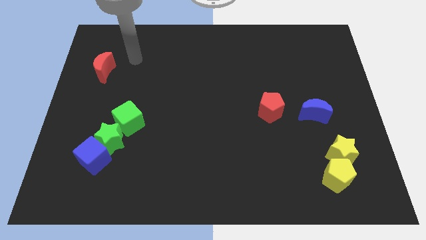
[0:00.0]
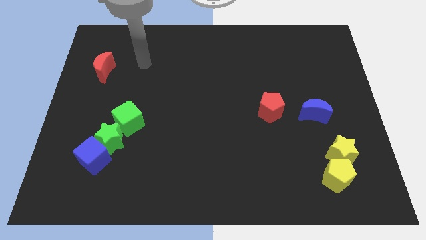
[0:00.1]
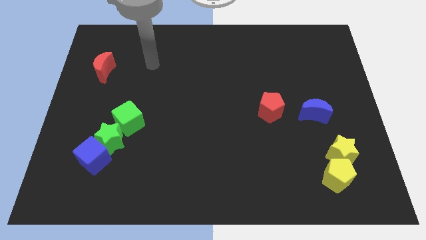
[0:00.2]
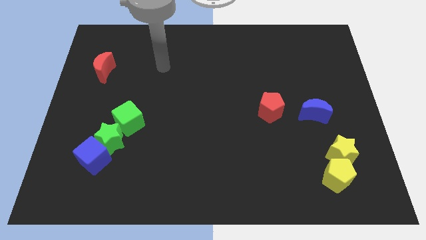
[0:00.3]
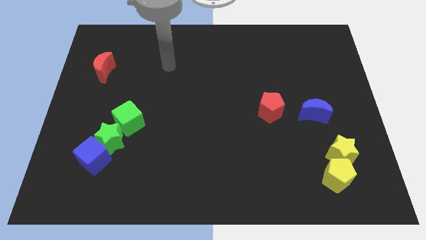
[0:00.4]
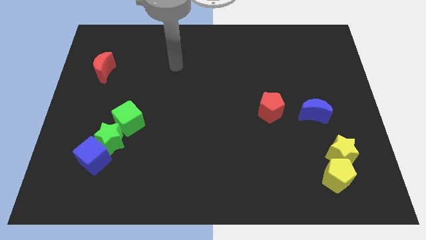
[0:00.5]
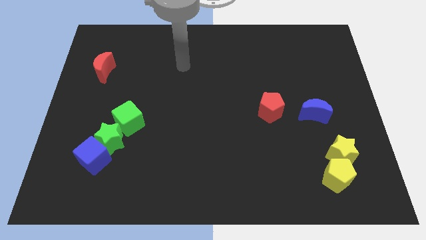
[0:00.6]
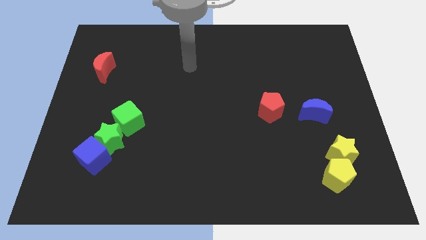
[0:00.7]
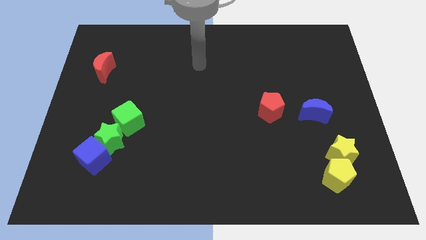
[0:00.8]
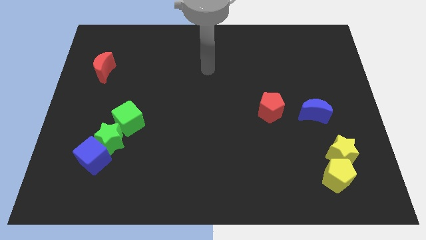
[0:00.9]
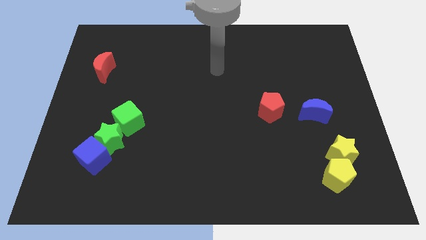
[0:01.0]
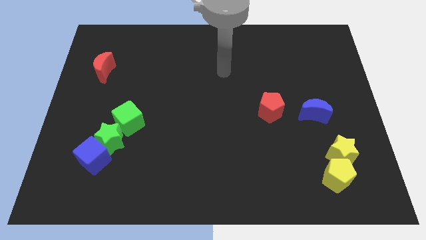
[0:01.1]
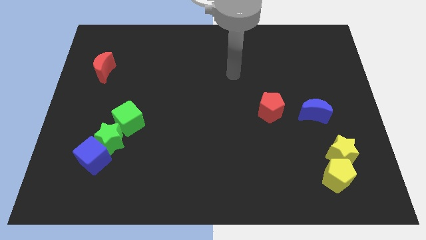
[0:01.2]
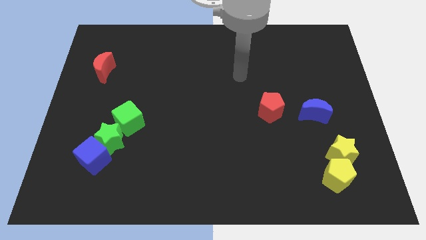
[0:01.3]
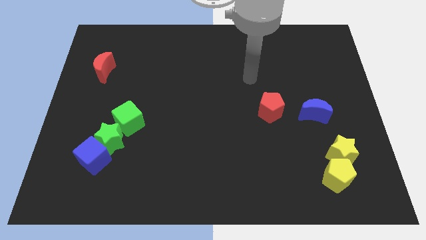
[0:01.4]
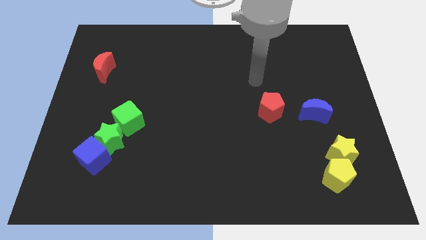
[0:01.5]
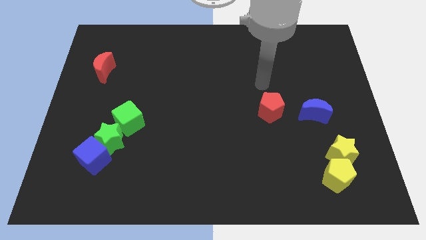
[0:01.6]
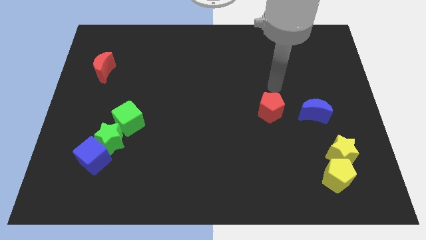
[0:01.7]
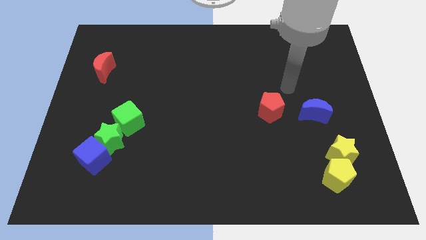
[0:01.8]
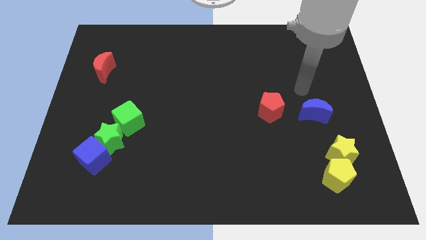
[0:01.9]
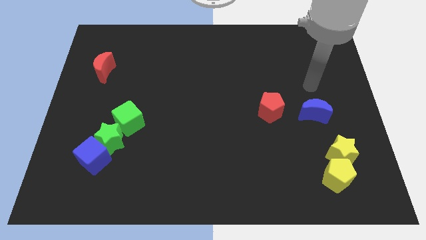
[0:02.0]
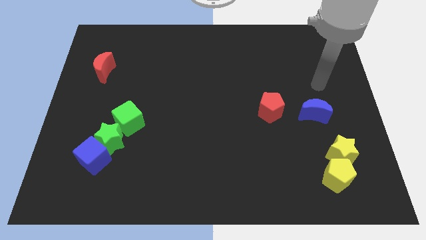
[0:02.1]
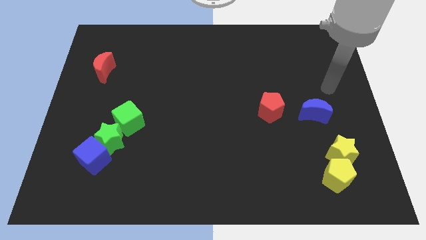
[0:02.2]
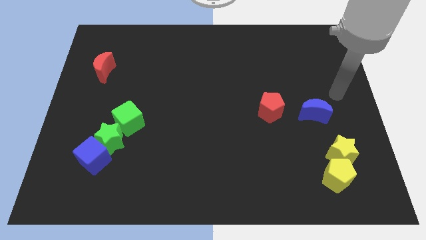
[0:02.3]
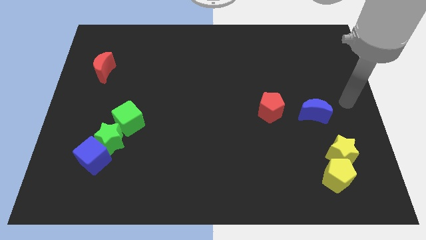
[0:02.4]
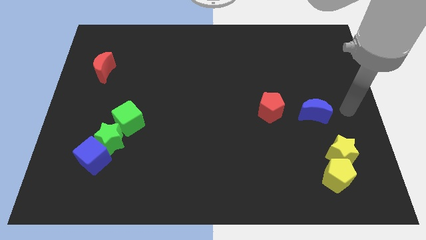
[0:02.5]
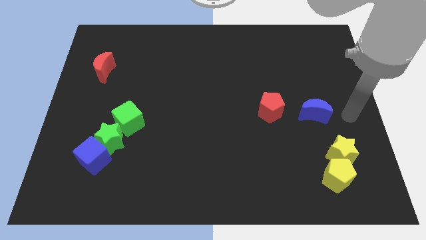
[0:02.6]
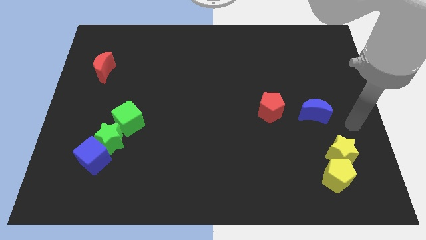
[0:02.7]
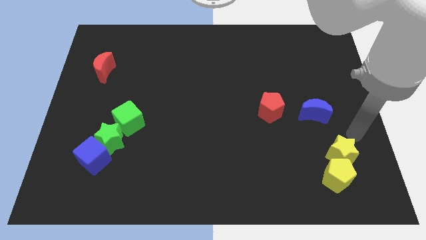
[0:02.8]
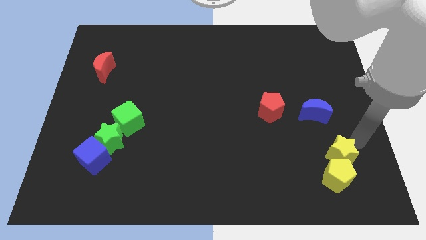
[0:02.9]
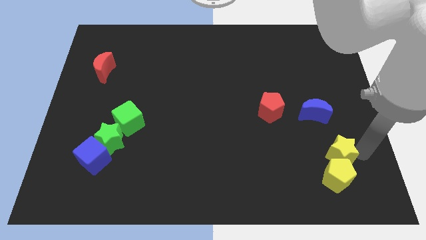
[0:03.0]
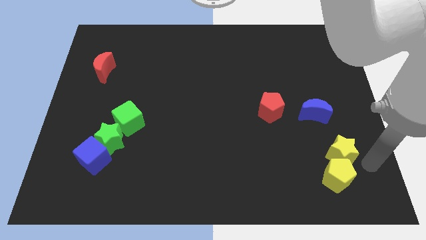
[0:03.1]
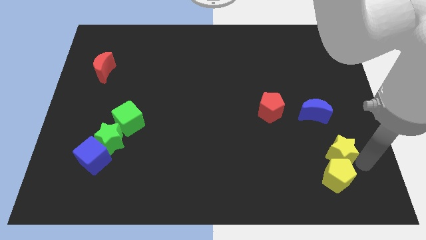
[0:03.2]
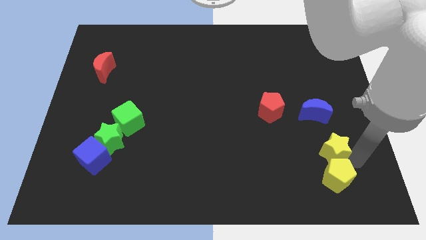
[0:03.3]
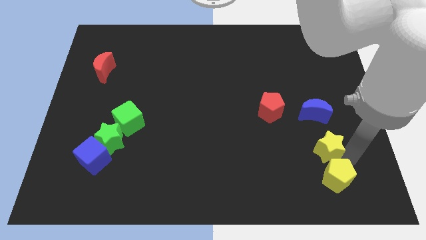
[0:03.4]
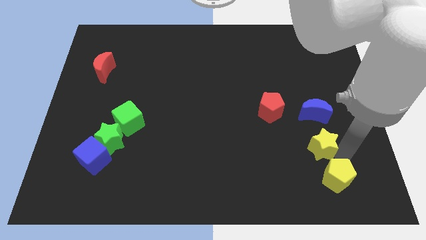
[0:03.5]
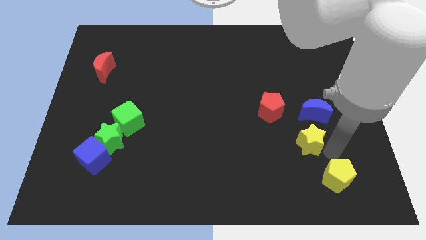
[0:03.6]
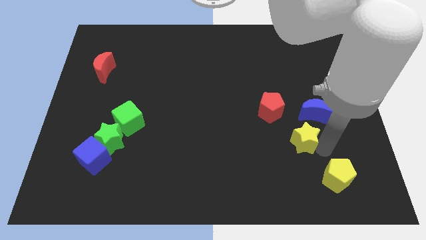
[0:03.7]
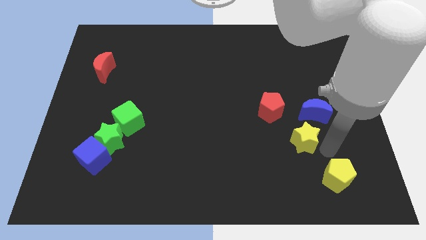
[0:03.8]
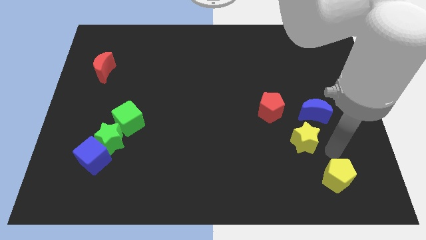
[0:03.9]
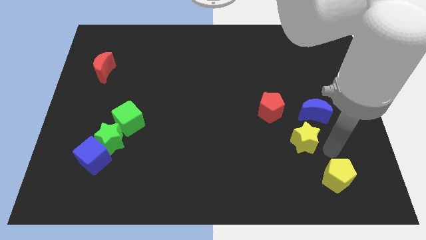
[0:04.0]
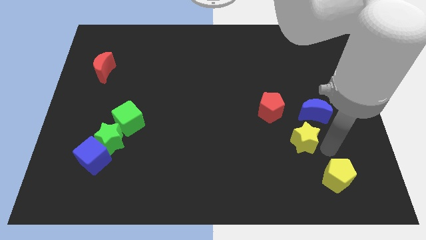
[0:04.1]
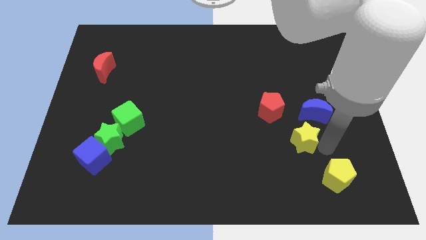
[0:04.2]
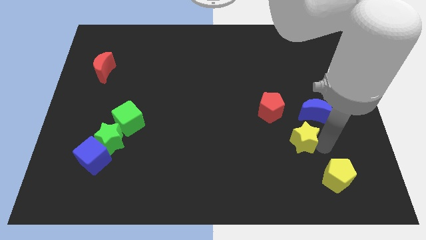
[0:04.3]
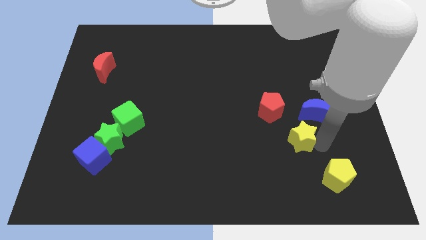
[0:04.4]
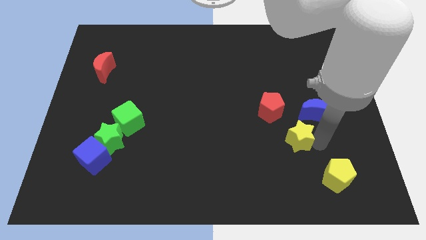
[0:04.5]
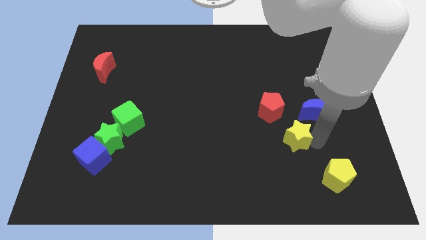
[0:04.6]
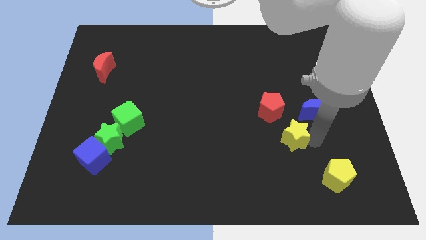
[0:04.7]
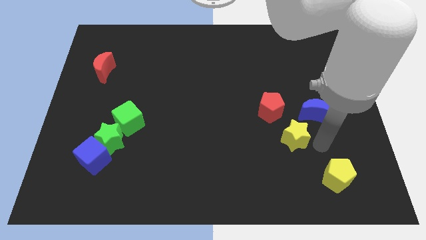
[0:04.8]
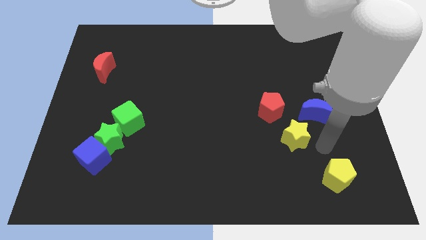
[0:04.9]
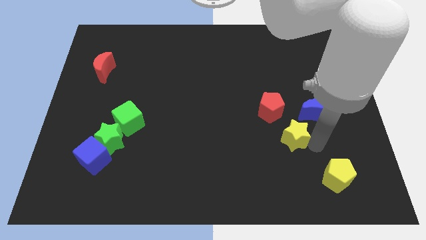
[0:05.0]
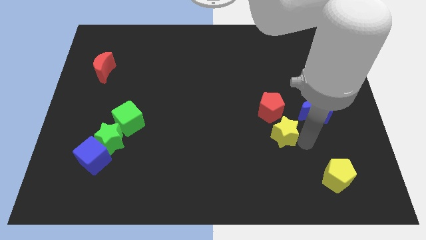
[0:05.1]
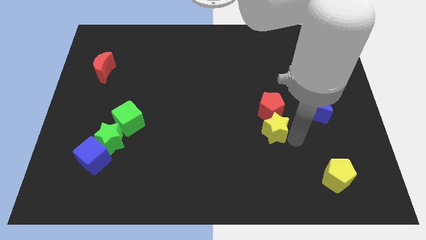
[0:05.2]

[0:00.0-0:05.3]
push the yellow star to the bottom left side of the red pentagon

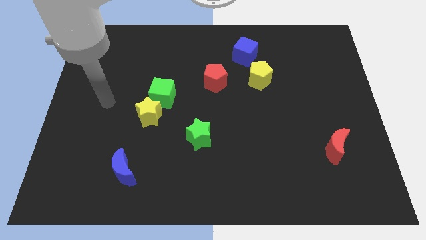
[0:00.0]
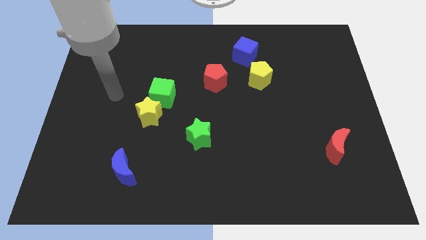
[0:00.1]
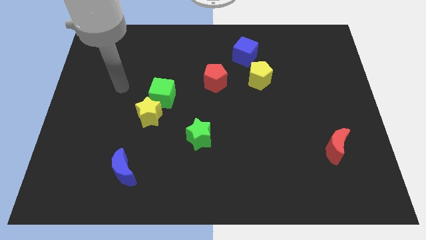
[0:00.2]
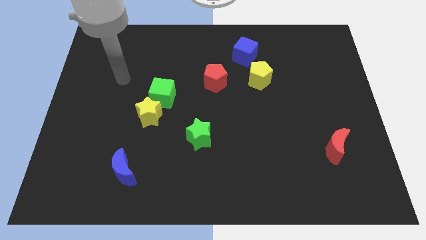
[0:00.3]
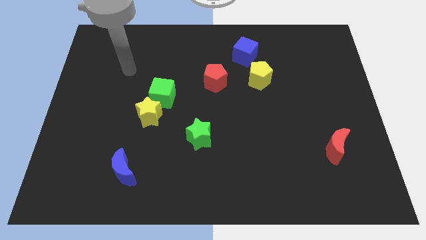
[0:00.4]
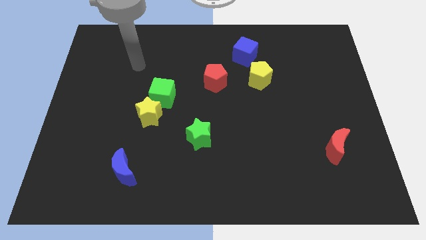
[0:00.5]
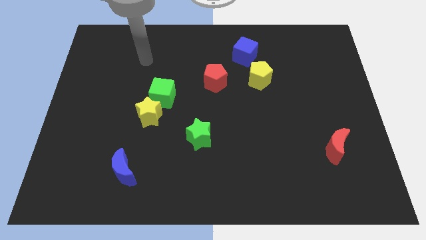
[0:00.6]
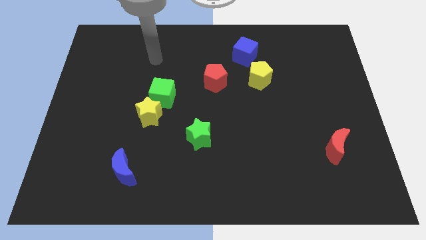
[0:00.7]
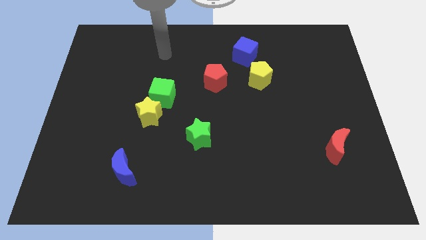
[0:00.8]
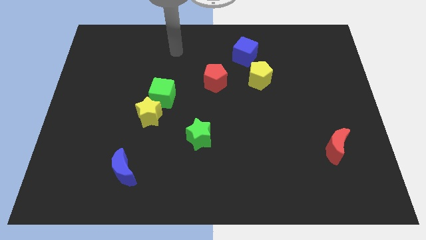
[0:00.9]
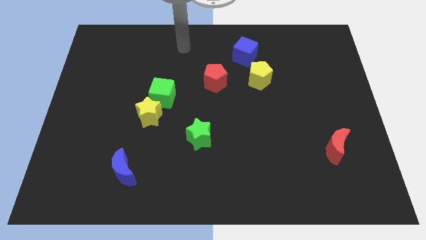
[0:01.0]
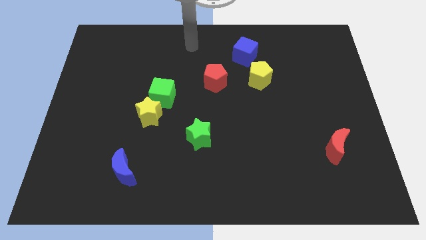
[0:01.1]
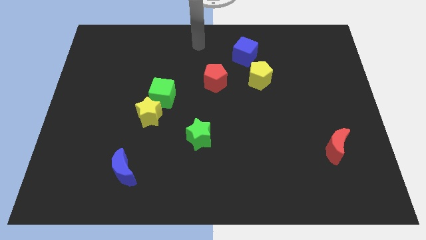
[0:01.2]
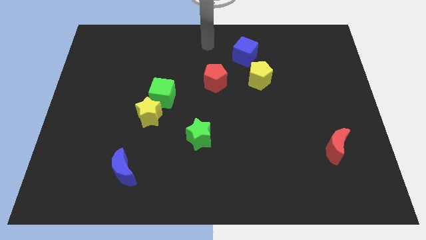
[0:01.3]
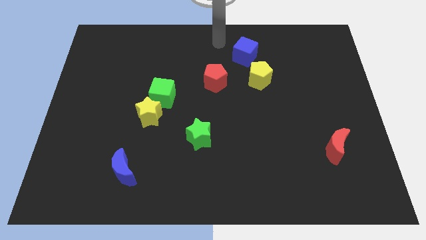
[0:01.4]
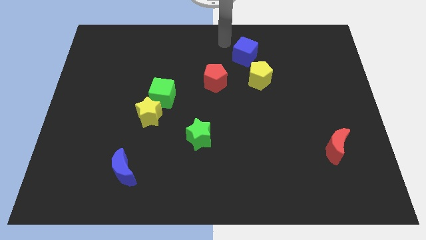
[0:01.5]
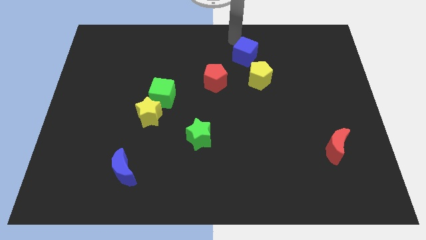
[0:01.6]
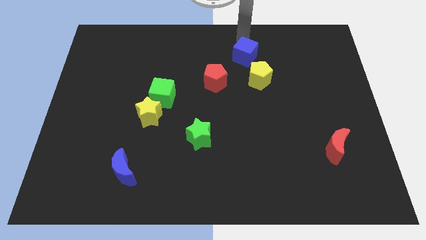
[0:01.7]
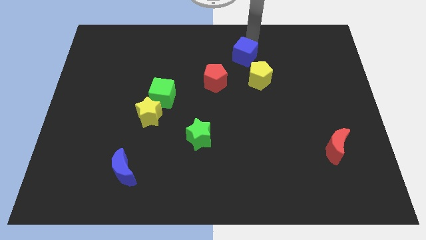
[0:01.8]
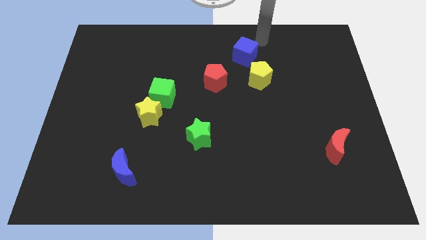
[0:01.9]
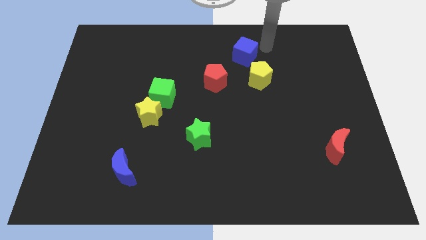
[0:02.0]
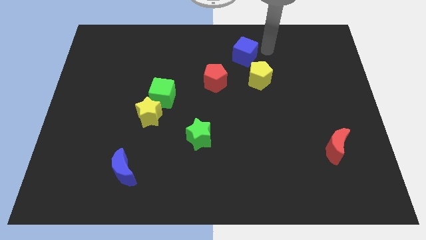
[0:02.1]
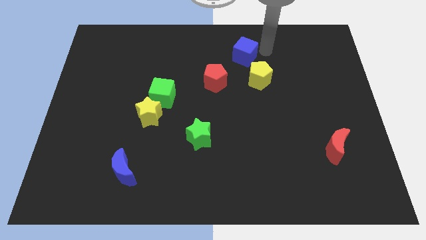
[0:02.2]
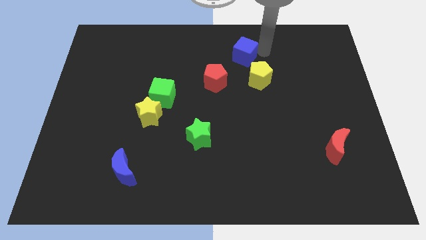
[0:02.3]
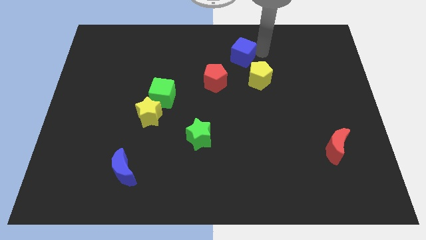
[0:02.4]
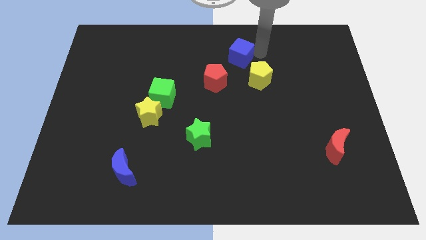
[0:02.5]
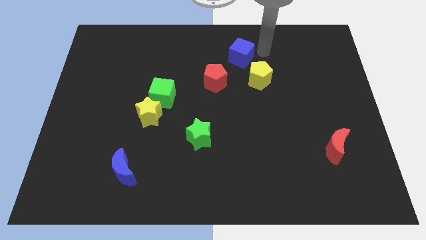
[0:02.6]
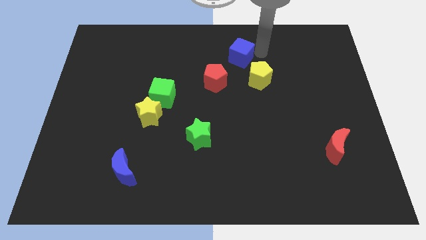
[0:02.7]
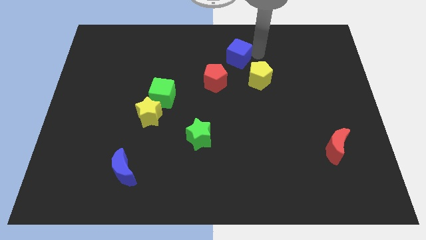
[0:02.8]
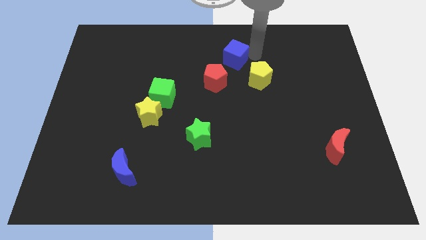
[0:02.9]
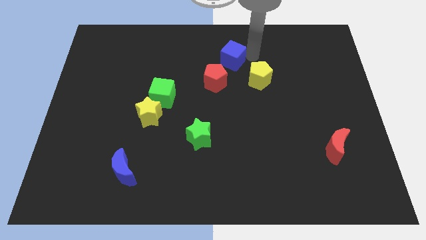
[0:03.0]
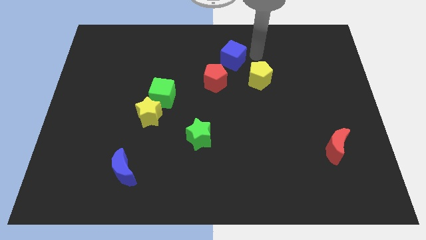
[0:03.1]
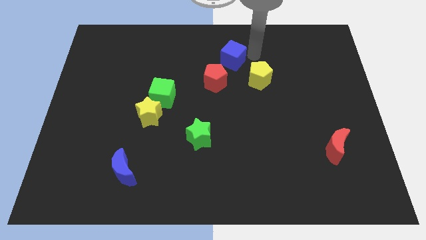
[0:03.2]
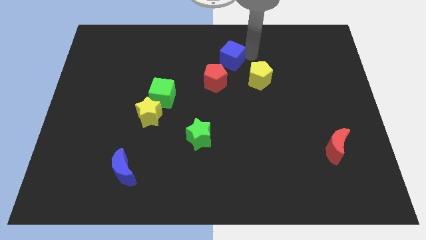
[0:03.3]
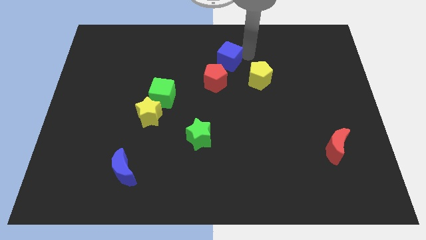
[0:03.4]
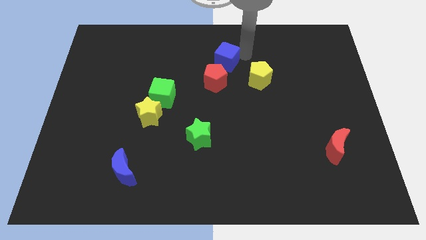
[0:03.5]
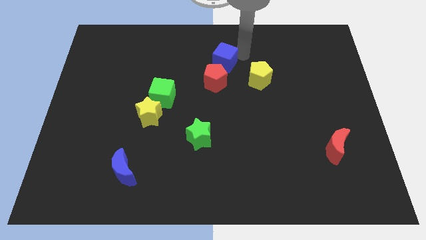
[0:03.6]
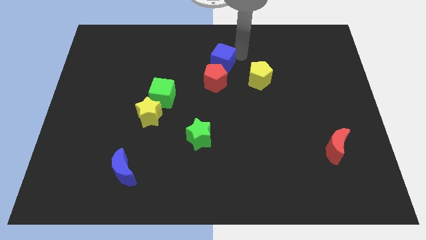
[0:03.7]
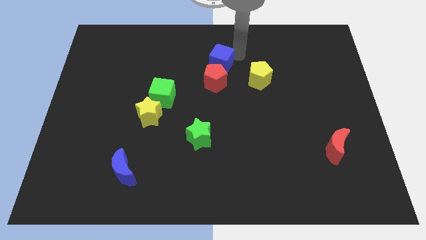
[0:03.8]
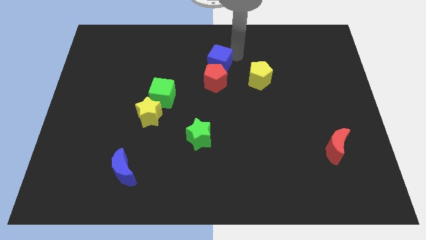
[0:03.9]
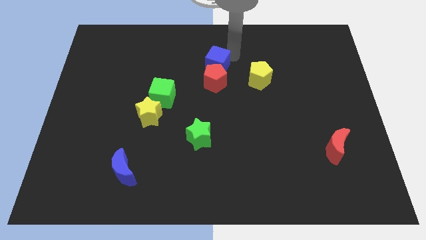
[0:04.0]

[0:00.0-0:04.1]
put the blue cube left of the yellow pentagon
